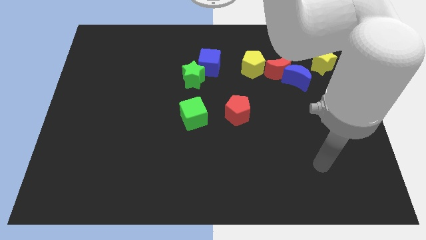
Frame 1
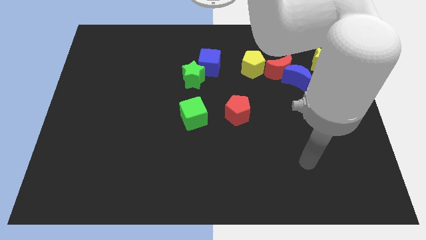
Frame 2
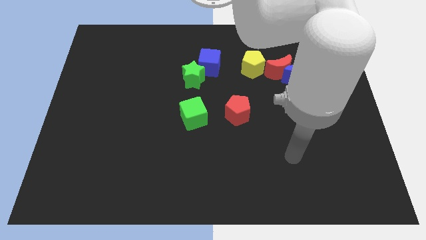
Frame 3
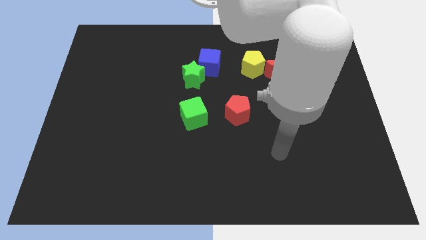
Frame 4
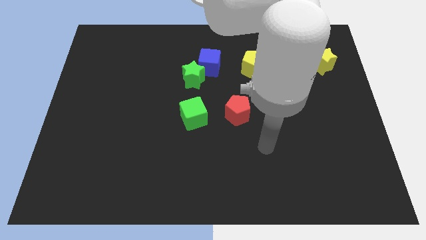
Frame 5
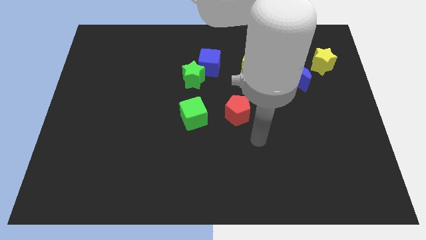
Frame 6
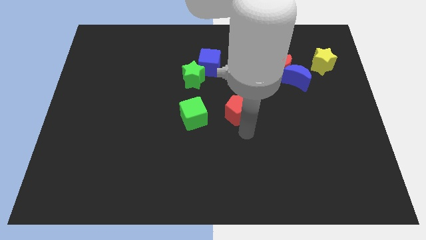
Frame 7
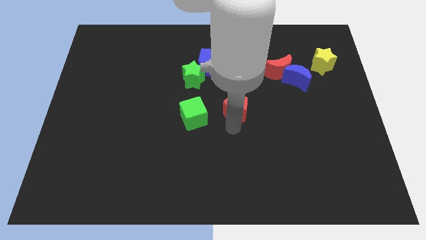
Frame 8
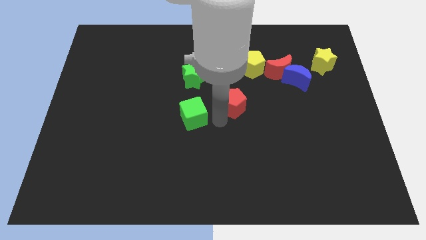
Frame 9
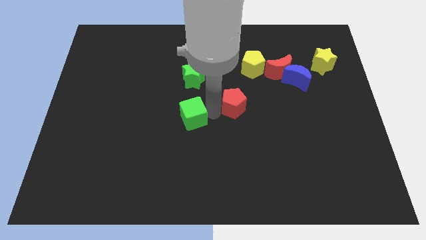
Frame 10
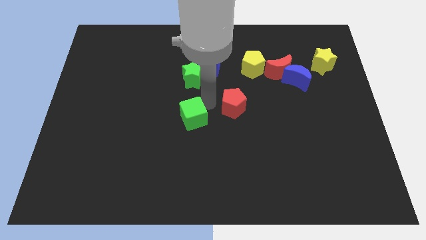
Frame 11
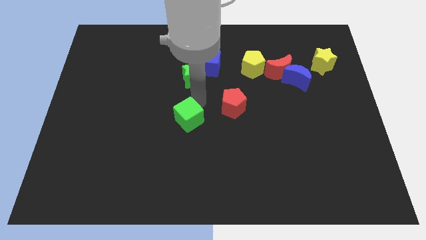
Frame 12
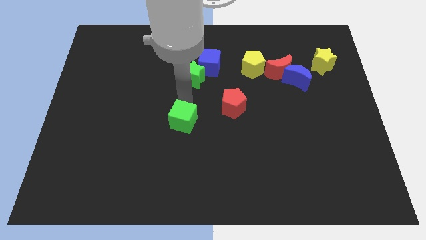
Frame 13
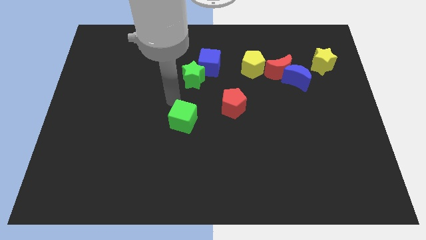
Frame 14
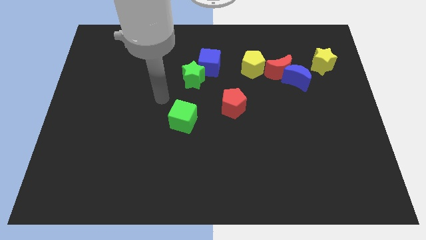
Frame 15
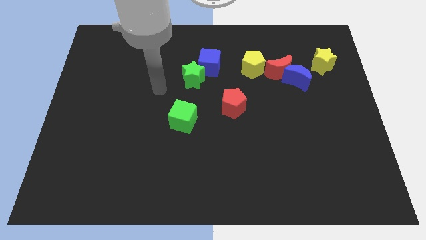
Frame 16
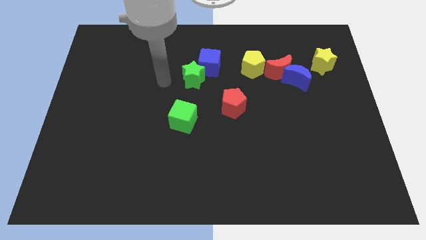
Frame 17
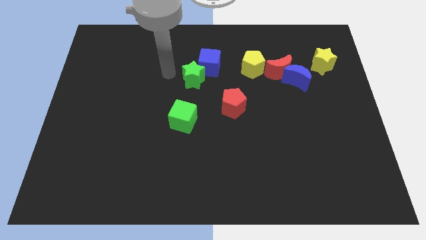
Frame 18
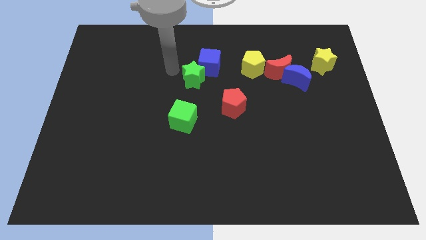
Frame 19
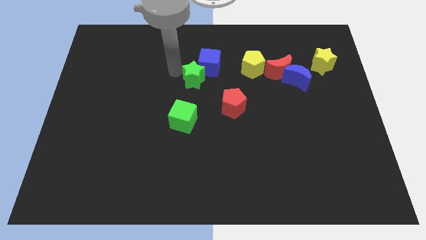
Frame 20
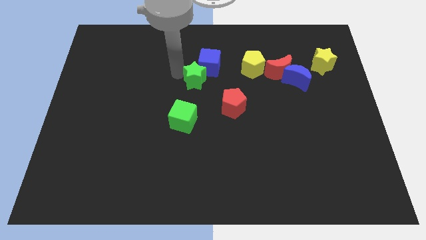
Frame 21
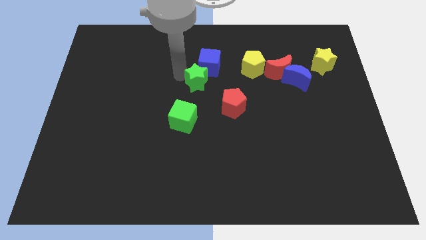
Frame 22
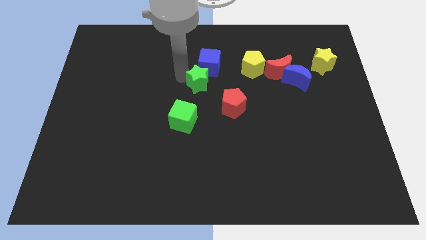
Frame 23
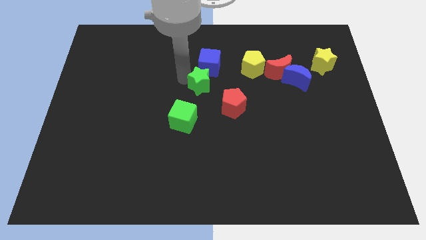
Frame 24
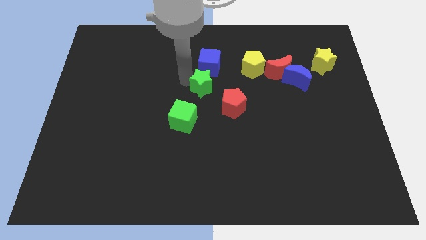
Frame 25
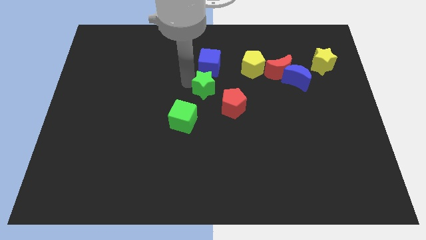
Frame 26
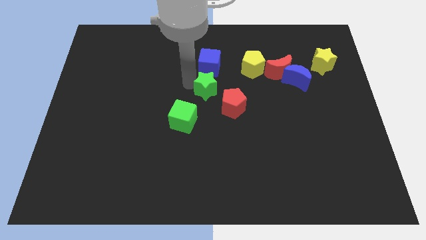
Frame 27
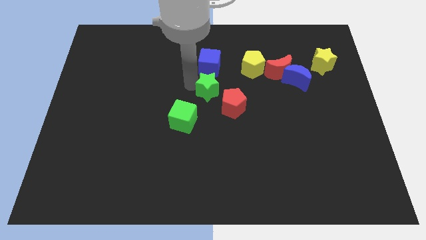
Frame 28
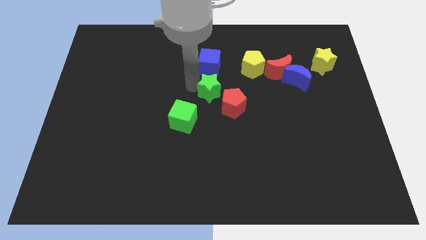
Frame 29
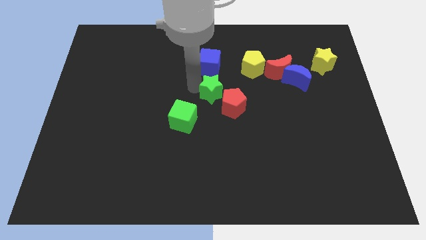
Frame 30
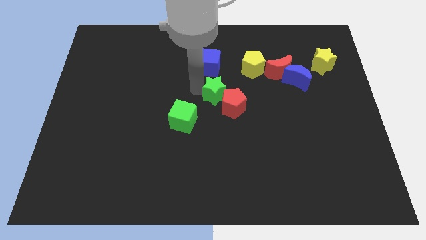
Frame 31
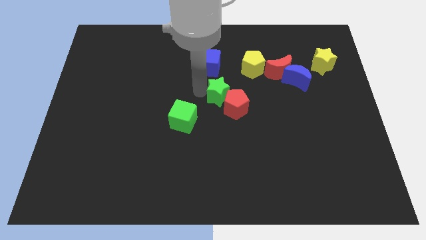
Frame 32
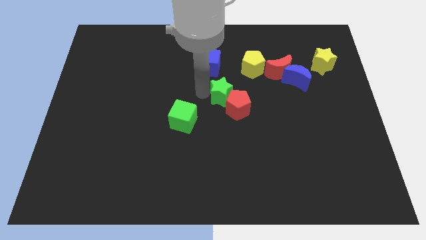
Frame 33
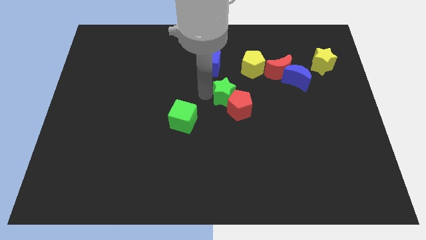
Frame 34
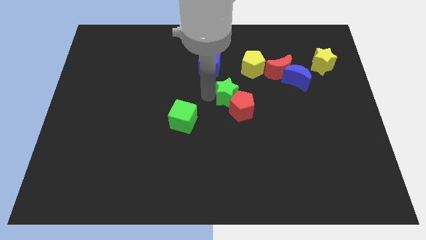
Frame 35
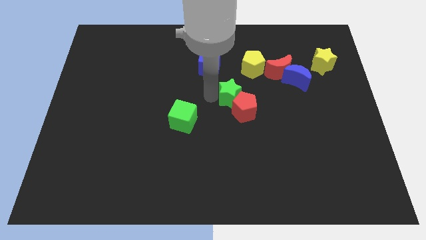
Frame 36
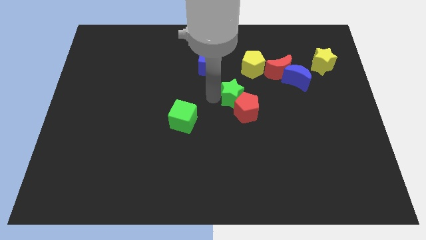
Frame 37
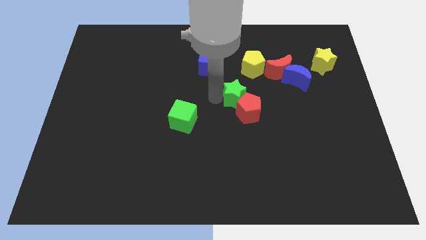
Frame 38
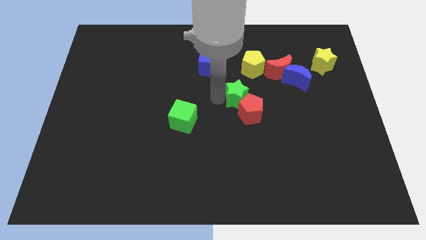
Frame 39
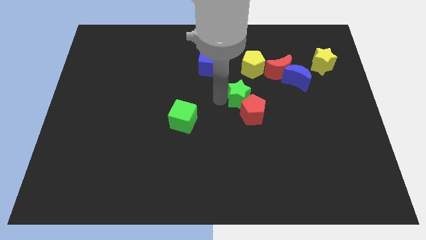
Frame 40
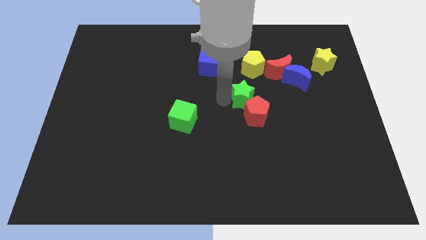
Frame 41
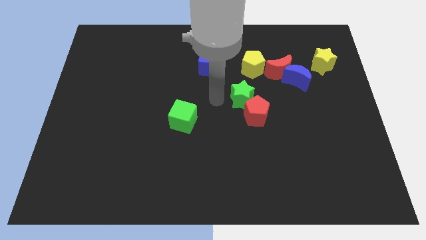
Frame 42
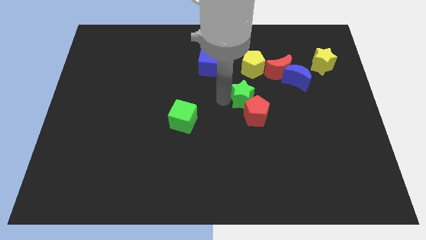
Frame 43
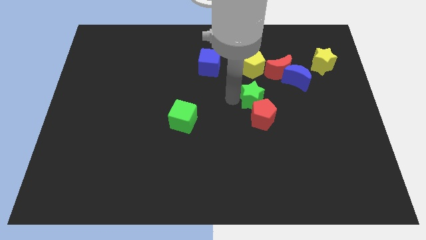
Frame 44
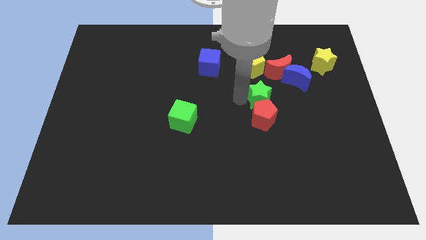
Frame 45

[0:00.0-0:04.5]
put the green star to the bottom left of the blue moon

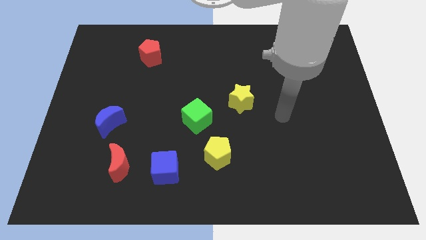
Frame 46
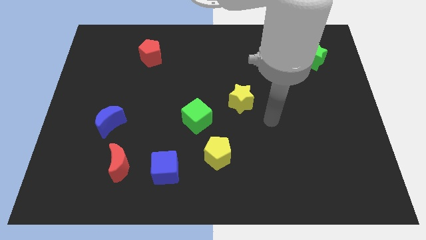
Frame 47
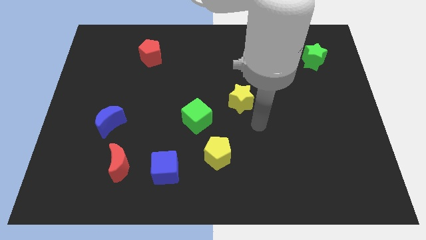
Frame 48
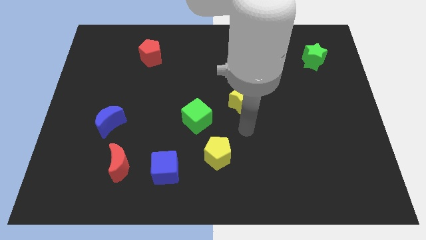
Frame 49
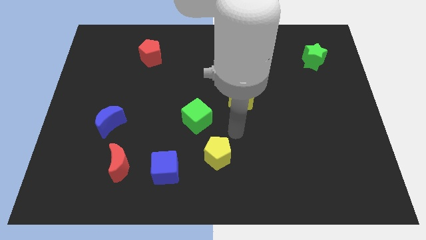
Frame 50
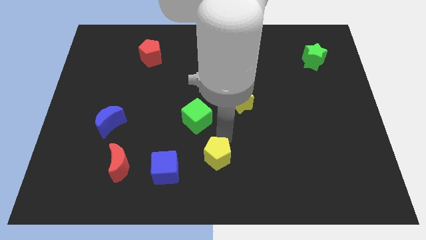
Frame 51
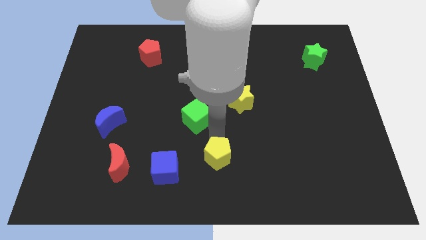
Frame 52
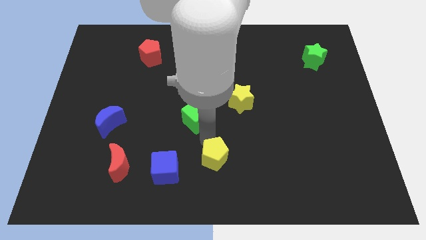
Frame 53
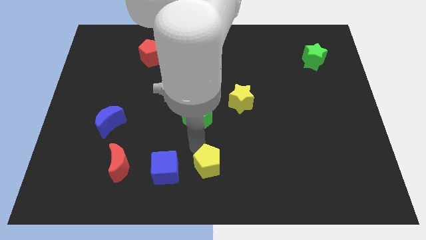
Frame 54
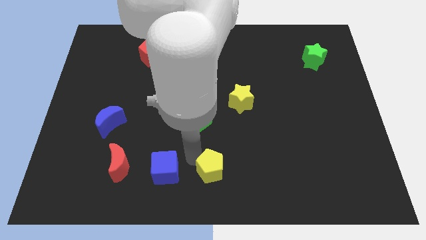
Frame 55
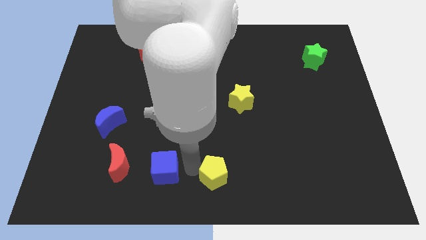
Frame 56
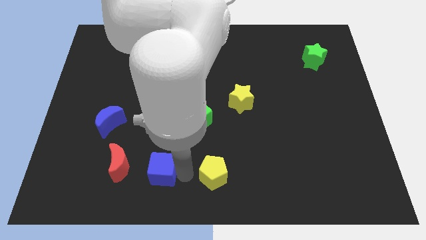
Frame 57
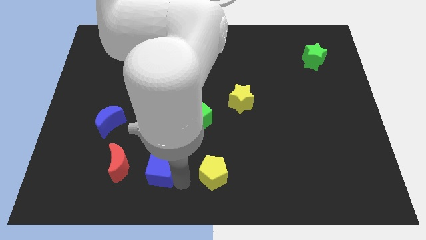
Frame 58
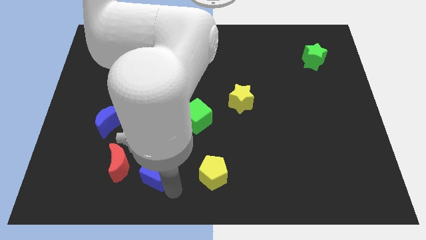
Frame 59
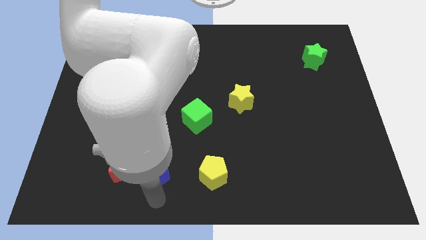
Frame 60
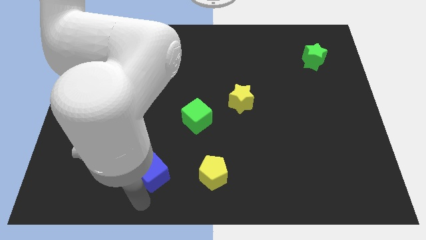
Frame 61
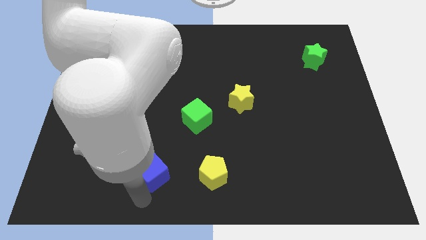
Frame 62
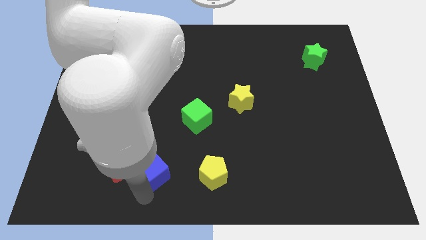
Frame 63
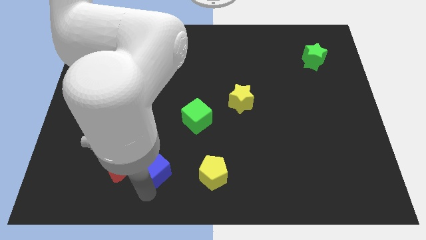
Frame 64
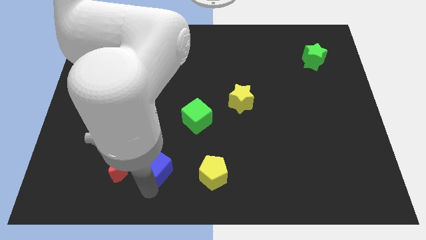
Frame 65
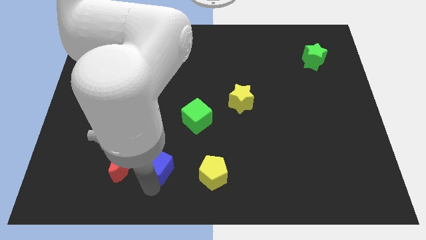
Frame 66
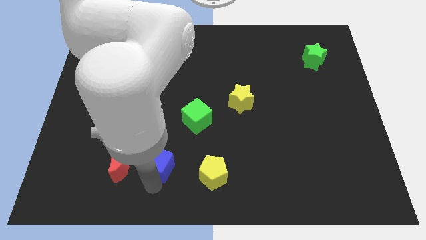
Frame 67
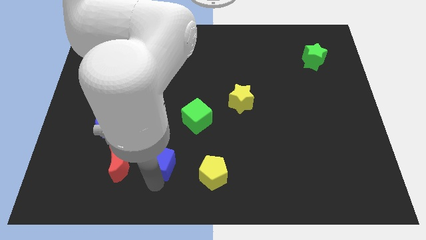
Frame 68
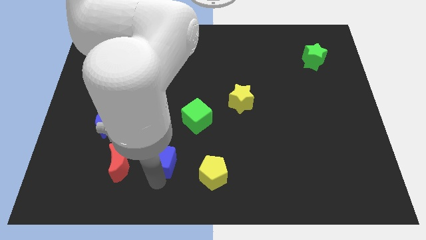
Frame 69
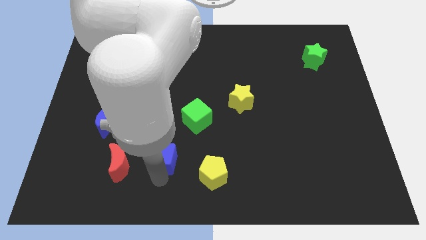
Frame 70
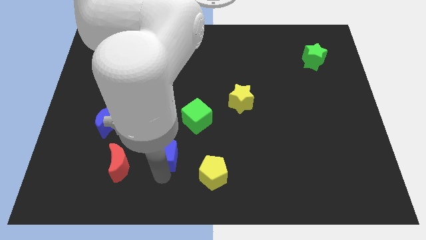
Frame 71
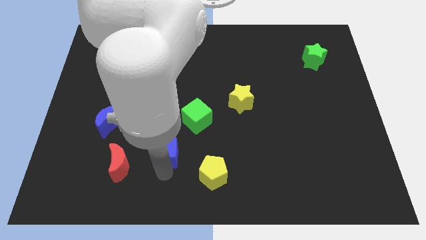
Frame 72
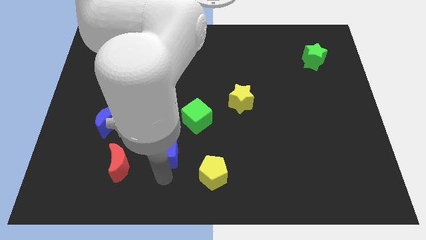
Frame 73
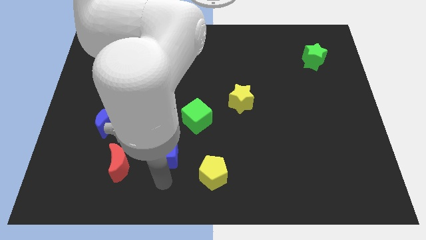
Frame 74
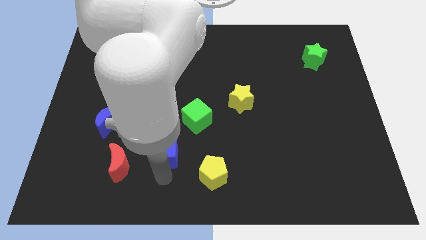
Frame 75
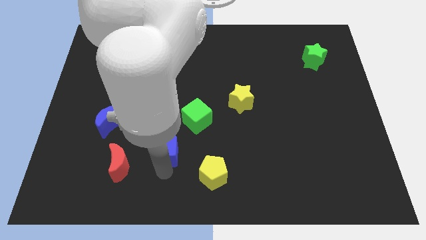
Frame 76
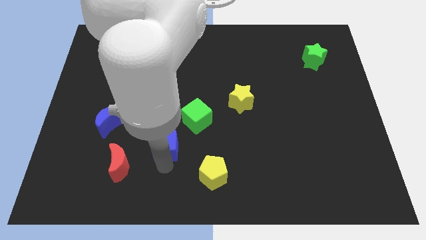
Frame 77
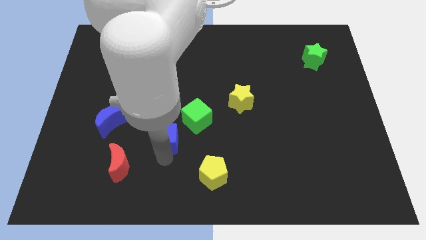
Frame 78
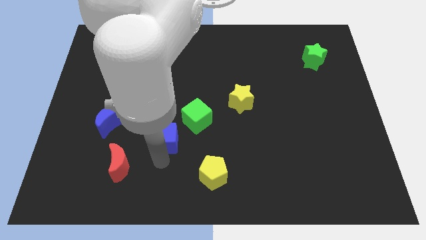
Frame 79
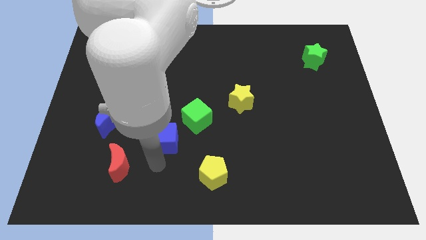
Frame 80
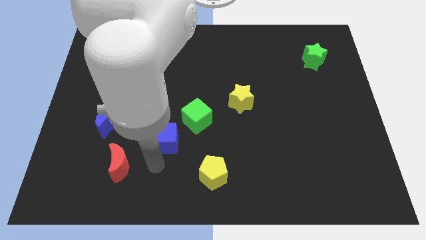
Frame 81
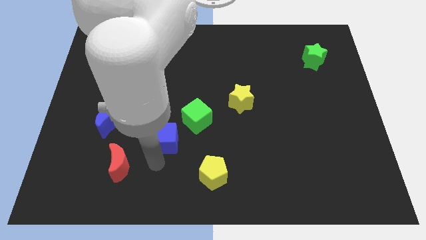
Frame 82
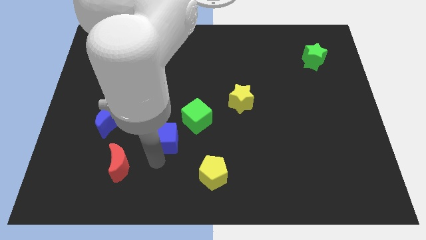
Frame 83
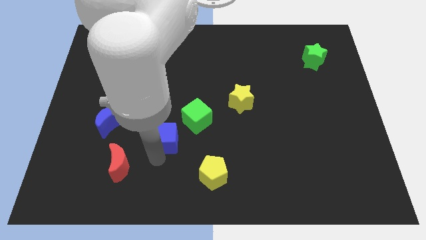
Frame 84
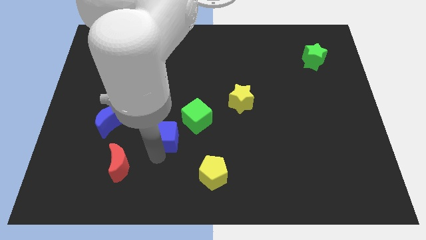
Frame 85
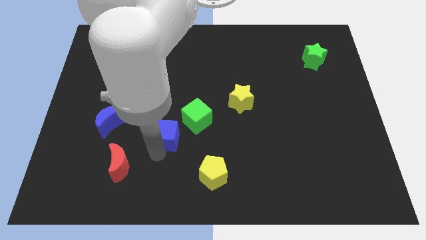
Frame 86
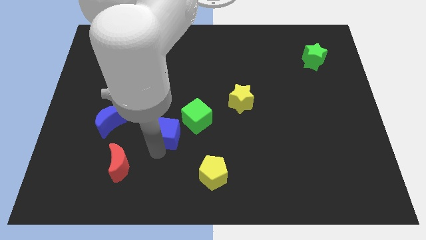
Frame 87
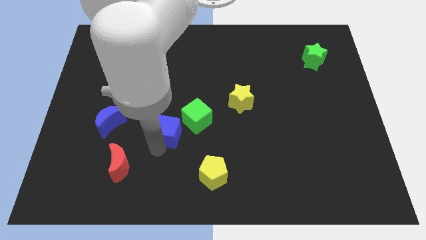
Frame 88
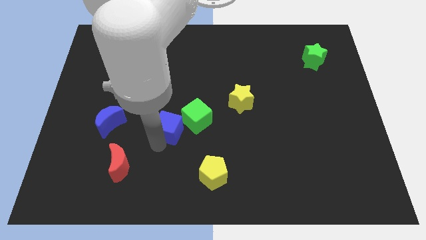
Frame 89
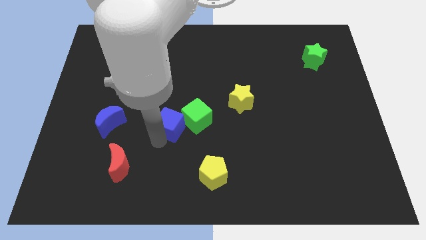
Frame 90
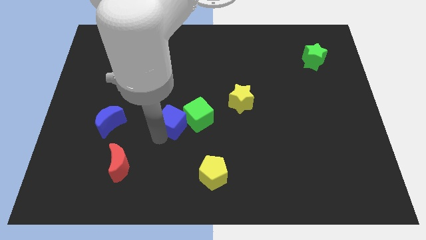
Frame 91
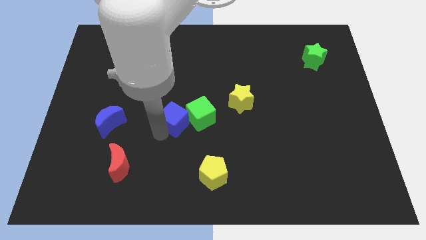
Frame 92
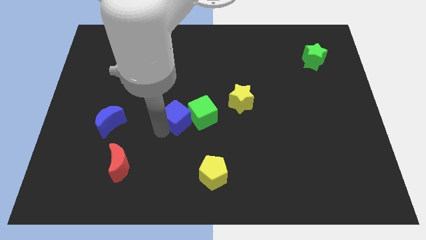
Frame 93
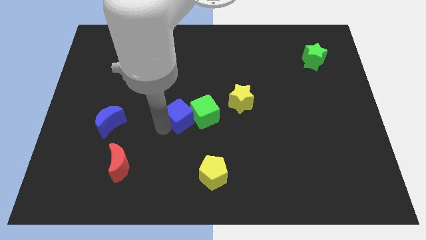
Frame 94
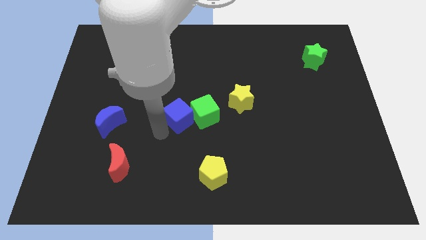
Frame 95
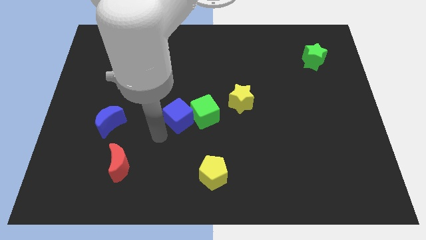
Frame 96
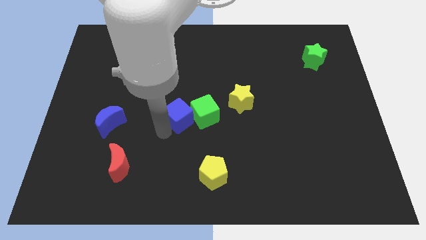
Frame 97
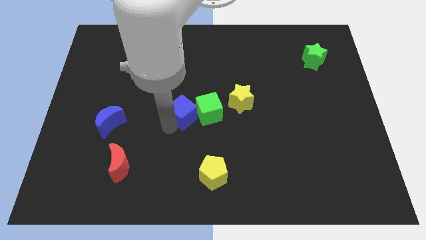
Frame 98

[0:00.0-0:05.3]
move the blue cube to the left side of the yellow star
